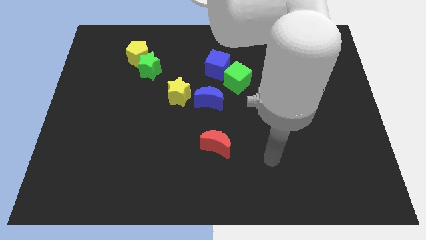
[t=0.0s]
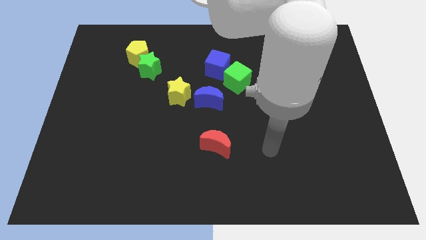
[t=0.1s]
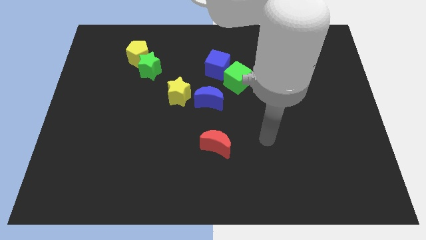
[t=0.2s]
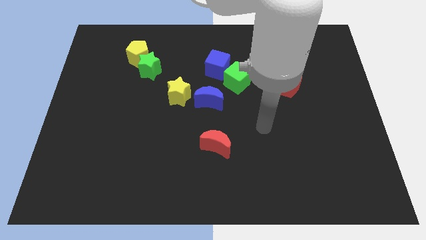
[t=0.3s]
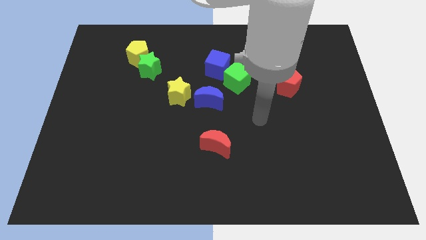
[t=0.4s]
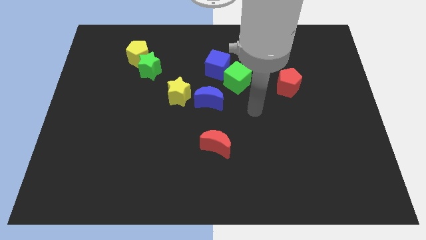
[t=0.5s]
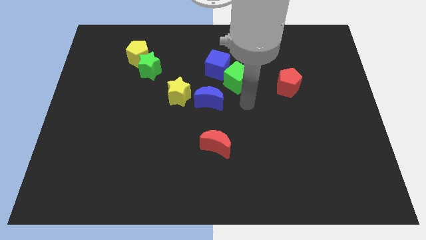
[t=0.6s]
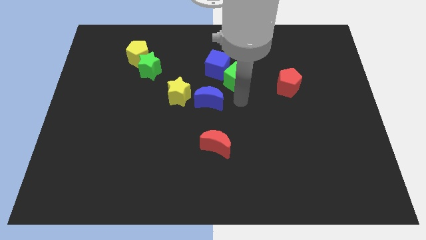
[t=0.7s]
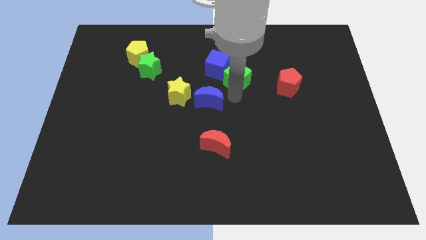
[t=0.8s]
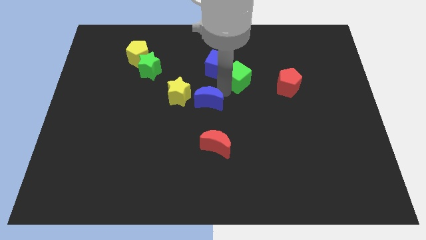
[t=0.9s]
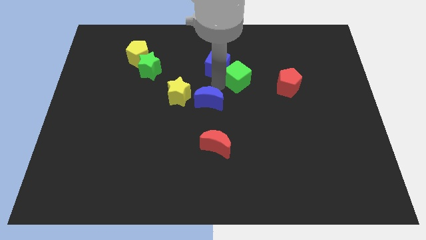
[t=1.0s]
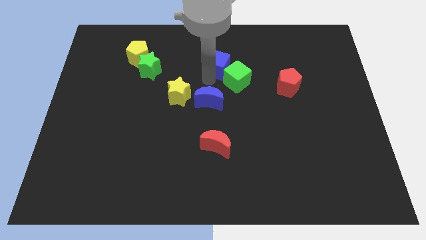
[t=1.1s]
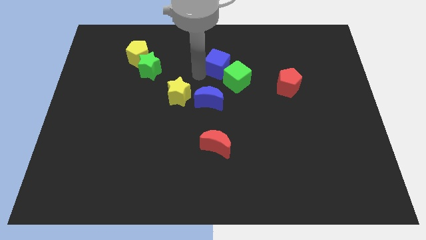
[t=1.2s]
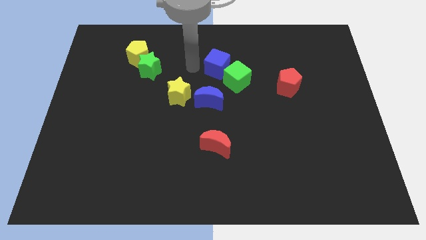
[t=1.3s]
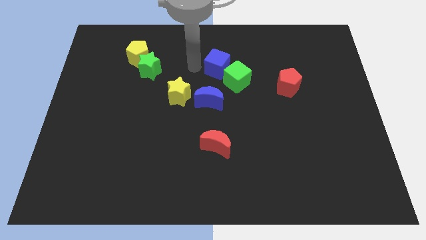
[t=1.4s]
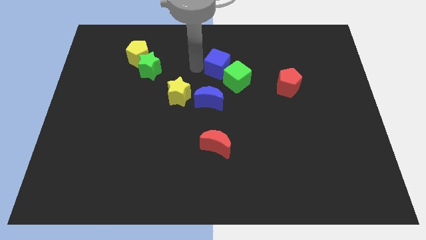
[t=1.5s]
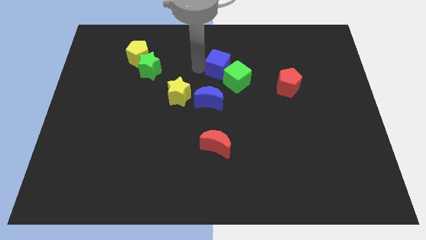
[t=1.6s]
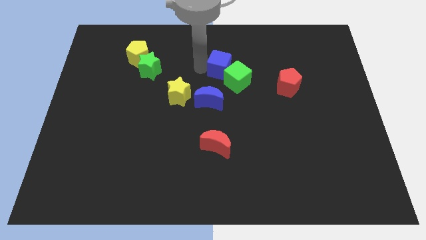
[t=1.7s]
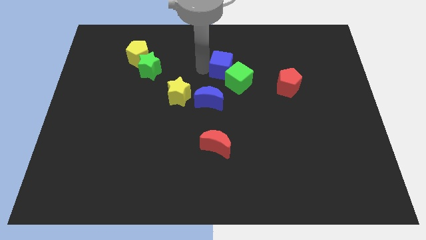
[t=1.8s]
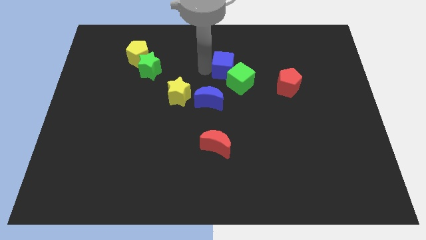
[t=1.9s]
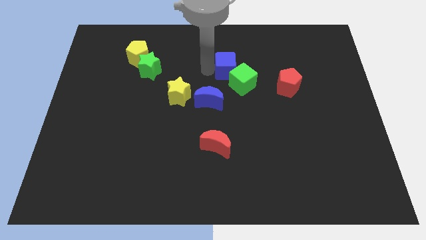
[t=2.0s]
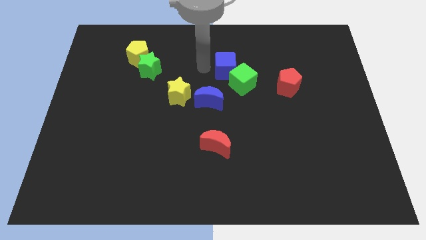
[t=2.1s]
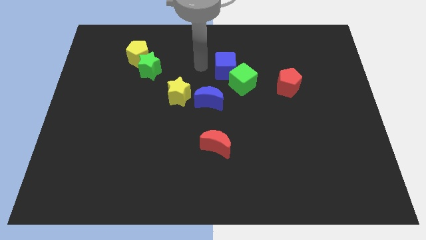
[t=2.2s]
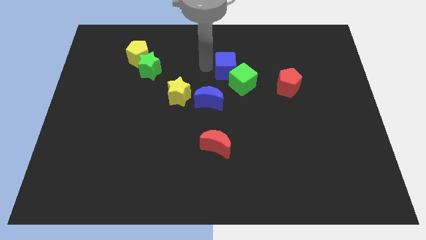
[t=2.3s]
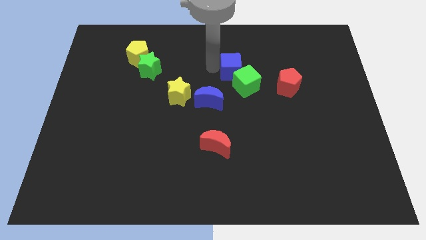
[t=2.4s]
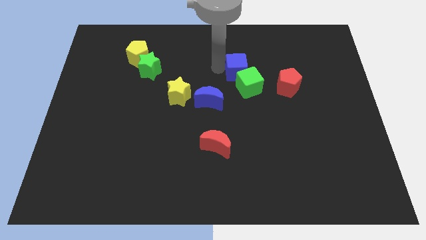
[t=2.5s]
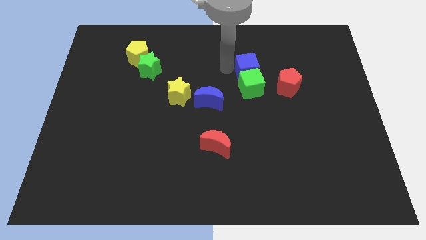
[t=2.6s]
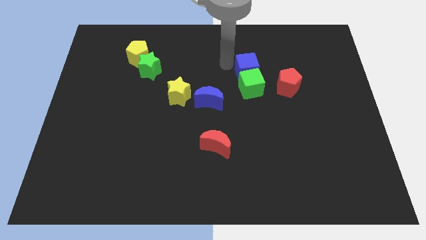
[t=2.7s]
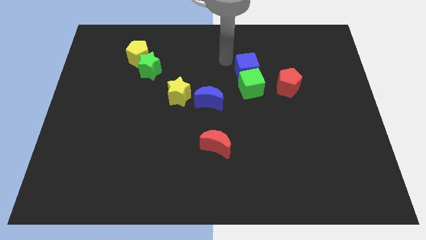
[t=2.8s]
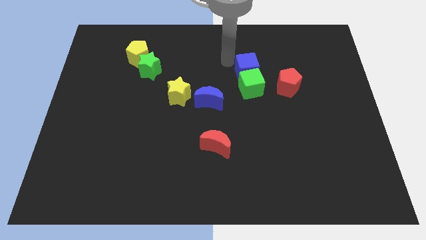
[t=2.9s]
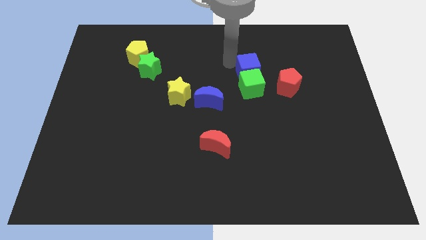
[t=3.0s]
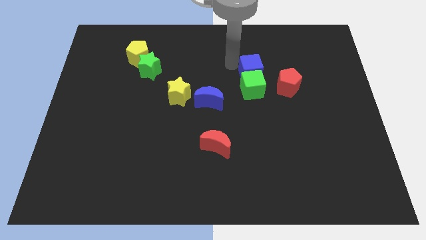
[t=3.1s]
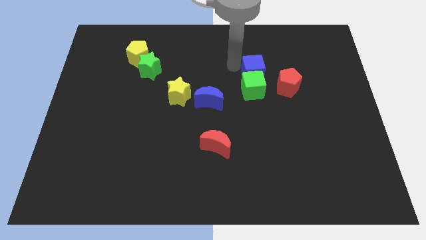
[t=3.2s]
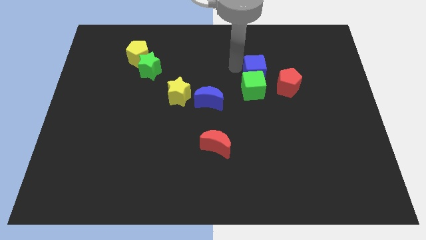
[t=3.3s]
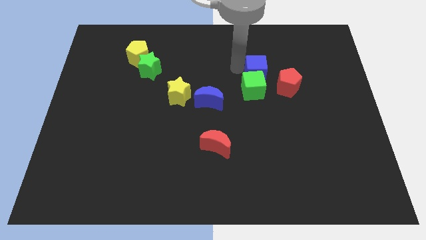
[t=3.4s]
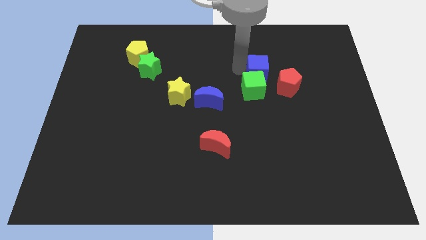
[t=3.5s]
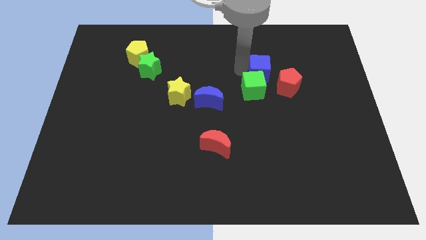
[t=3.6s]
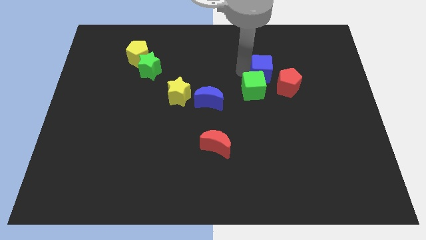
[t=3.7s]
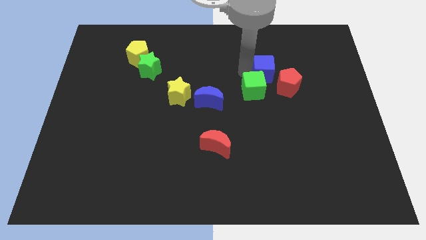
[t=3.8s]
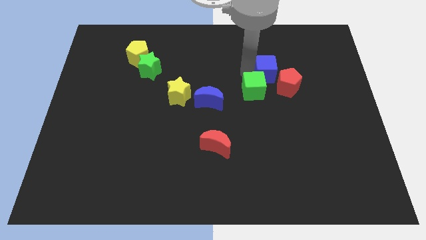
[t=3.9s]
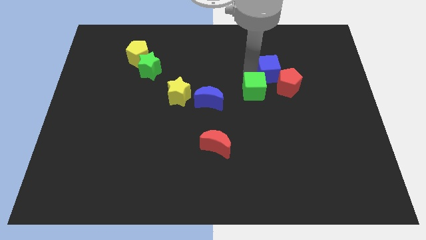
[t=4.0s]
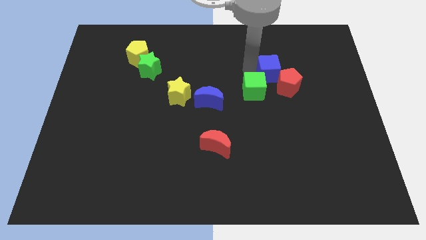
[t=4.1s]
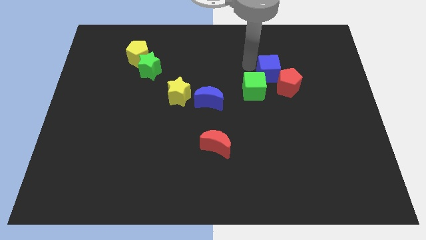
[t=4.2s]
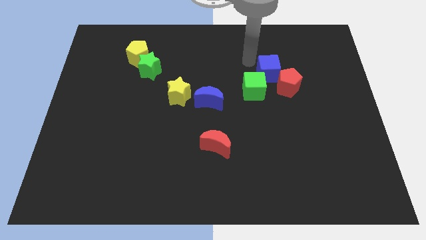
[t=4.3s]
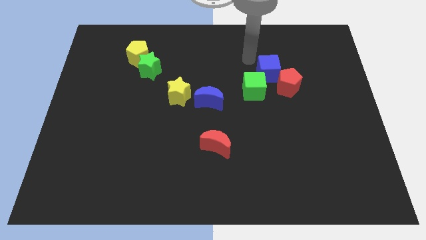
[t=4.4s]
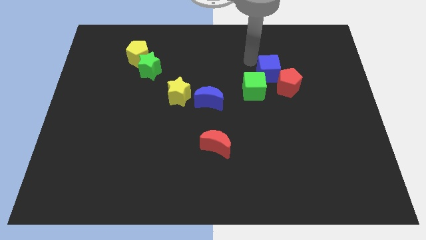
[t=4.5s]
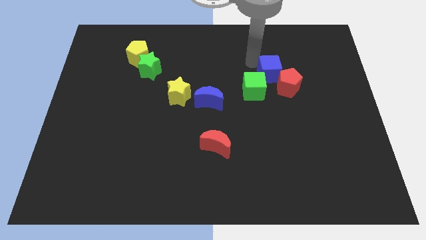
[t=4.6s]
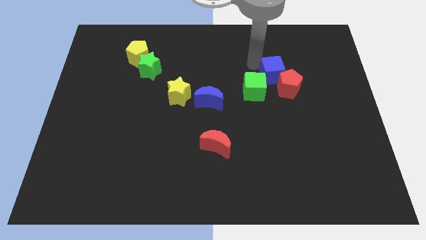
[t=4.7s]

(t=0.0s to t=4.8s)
push the blue cube close to the red pentagon

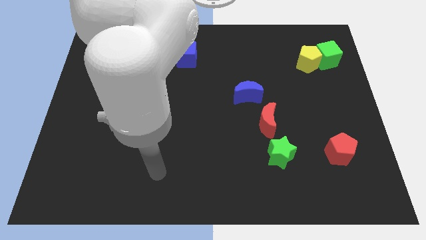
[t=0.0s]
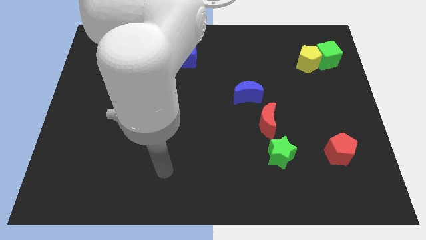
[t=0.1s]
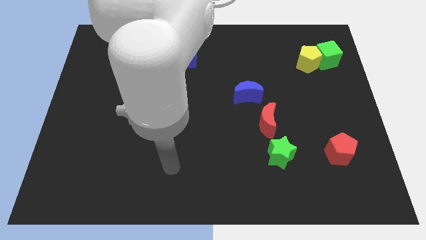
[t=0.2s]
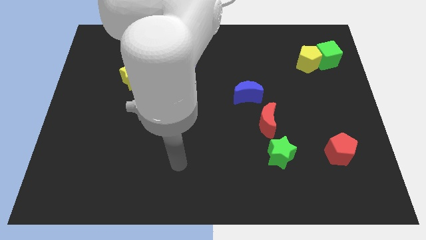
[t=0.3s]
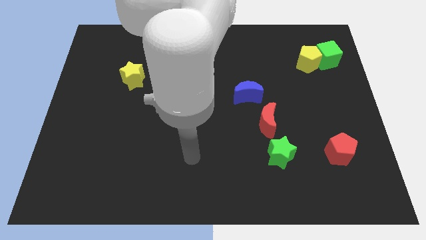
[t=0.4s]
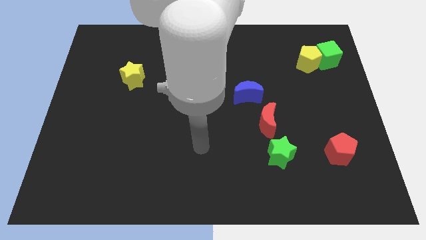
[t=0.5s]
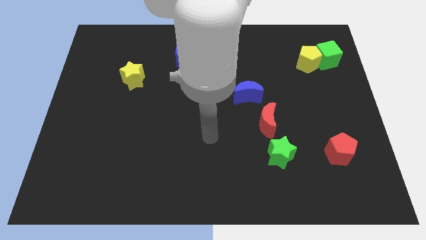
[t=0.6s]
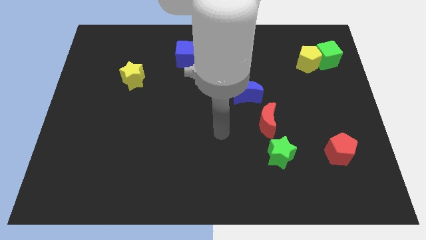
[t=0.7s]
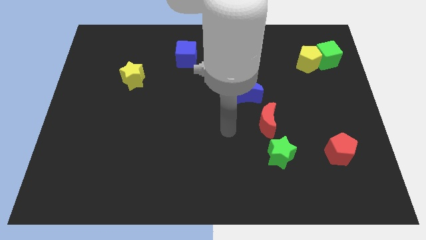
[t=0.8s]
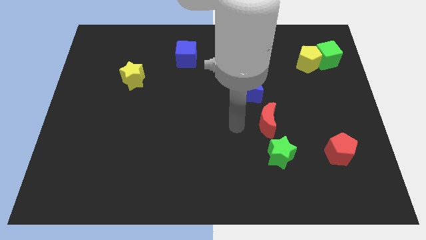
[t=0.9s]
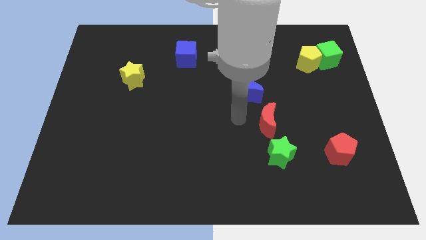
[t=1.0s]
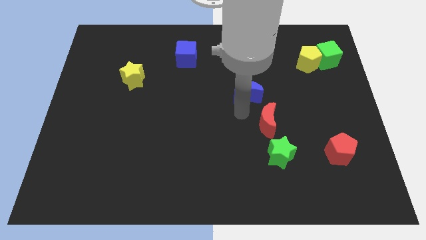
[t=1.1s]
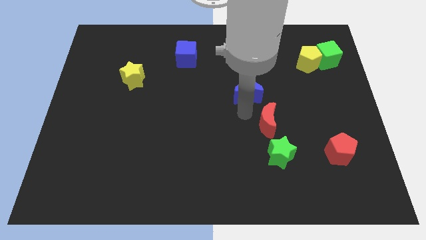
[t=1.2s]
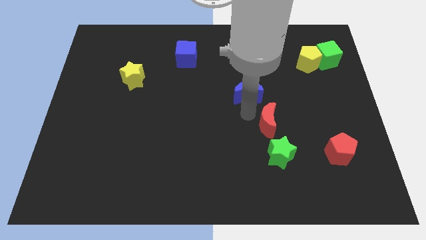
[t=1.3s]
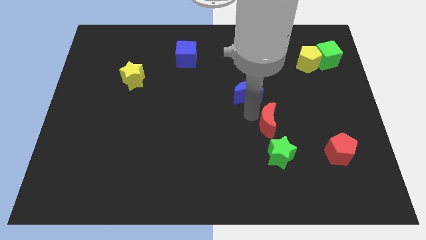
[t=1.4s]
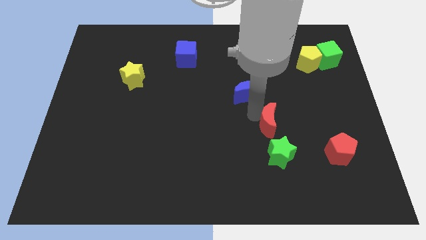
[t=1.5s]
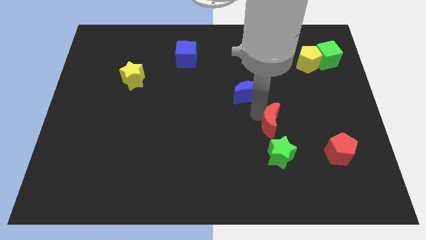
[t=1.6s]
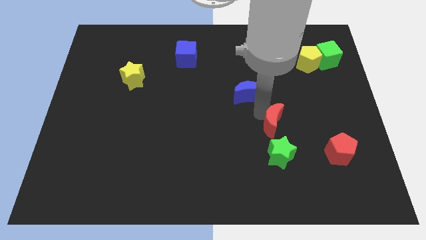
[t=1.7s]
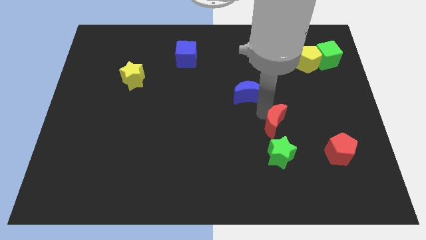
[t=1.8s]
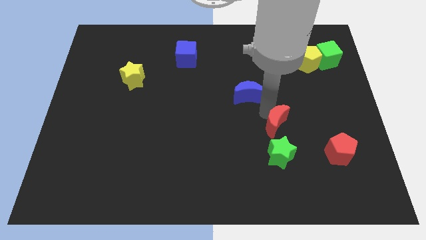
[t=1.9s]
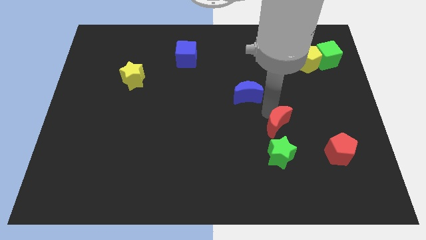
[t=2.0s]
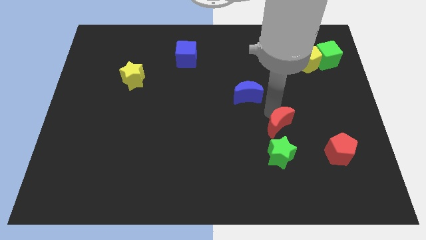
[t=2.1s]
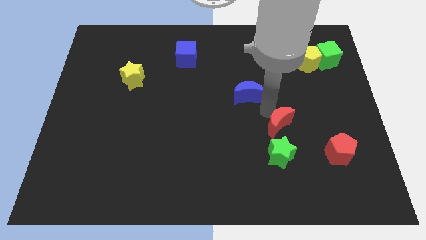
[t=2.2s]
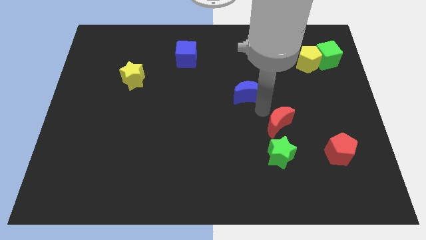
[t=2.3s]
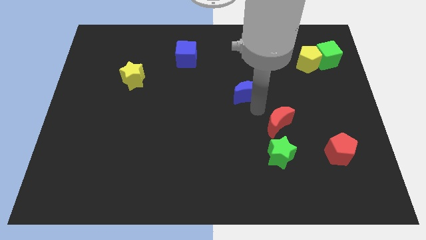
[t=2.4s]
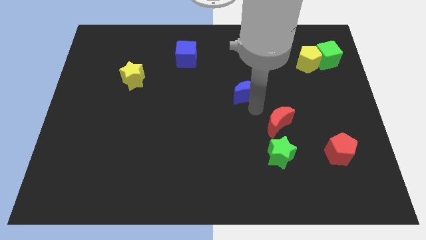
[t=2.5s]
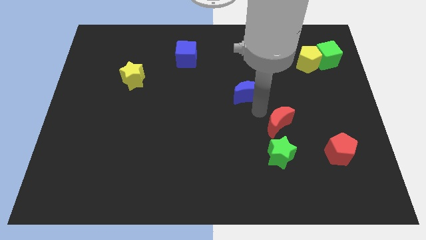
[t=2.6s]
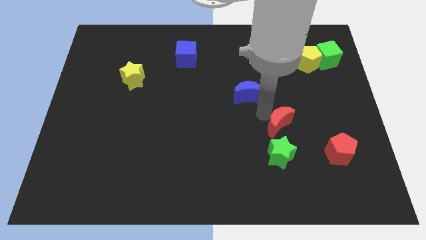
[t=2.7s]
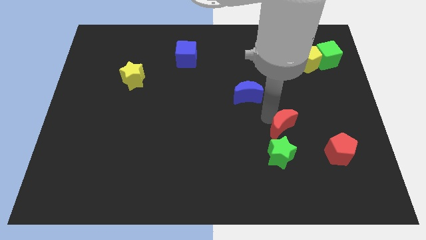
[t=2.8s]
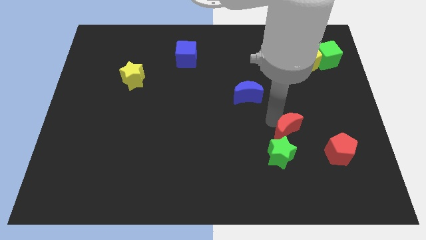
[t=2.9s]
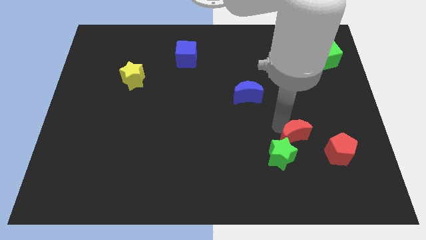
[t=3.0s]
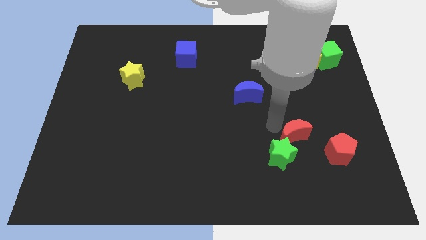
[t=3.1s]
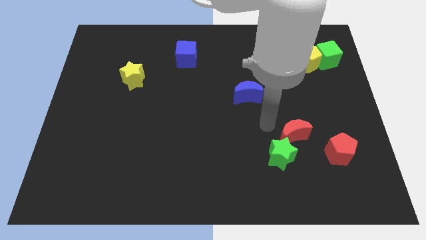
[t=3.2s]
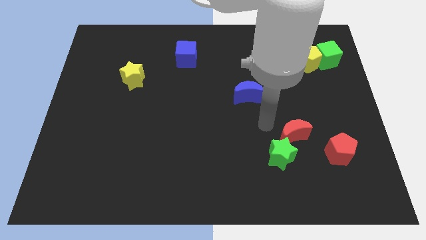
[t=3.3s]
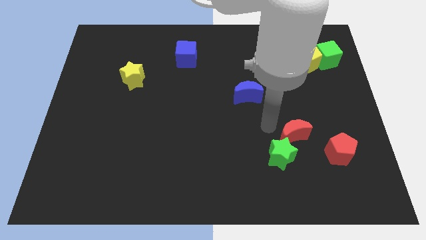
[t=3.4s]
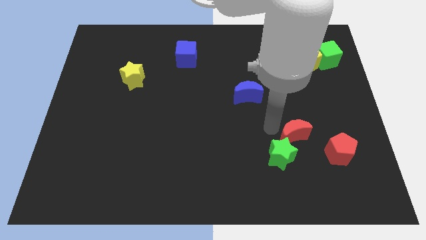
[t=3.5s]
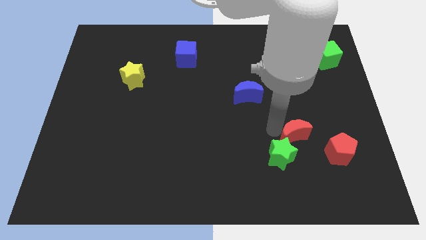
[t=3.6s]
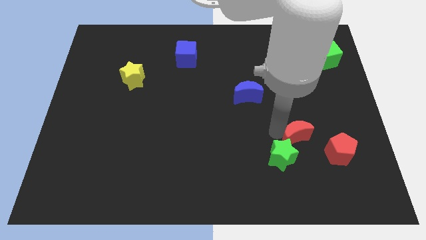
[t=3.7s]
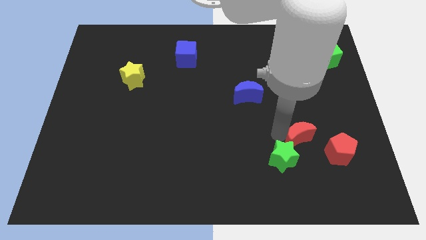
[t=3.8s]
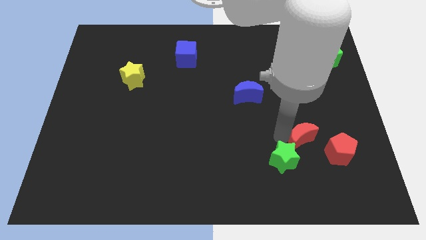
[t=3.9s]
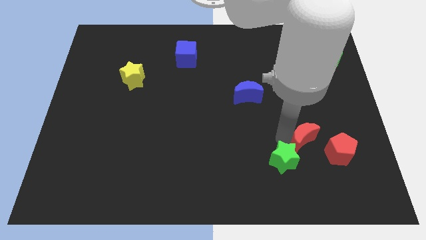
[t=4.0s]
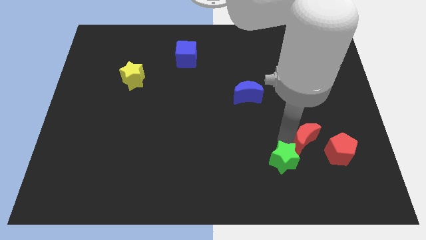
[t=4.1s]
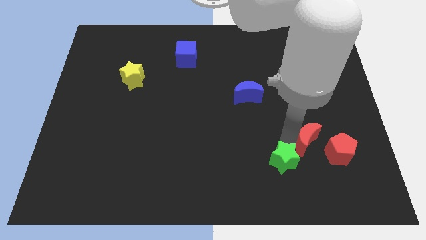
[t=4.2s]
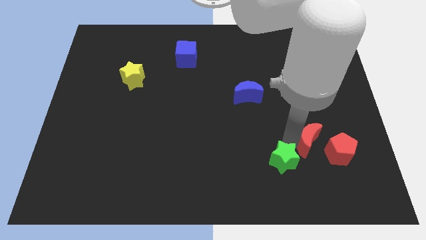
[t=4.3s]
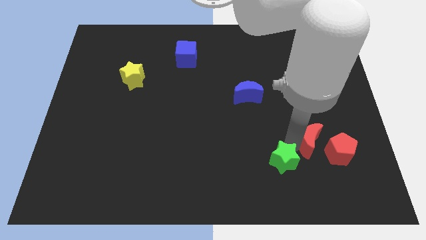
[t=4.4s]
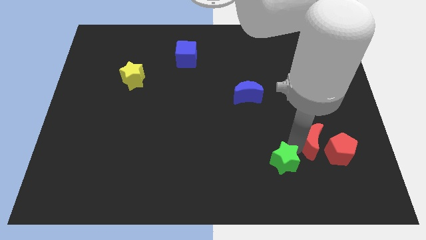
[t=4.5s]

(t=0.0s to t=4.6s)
slide the red moon next to the red pentagon
